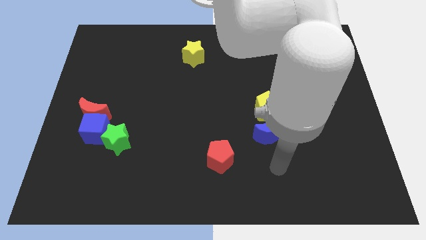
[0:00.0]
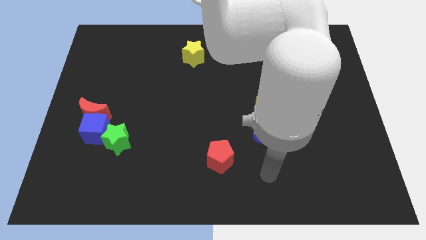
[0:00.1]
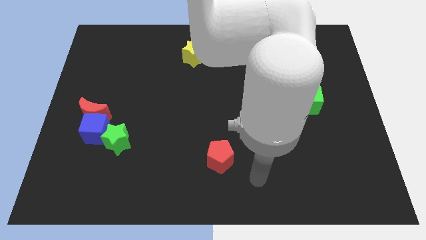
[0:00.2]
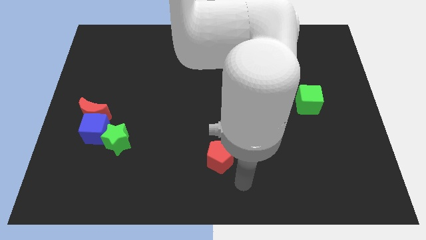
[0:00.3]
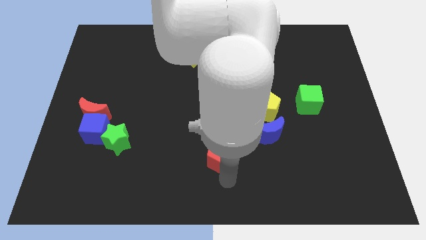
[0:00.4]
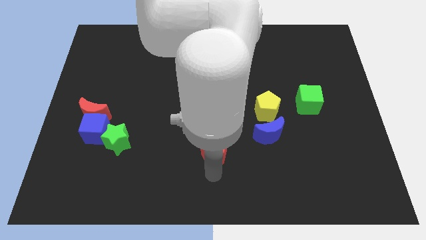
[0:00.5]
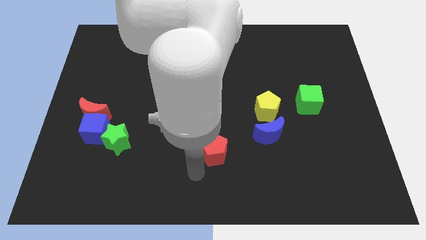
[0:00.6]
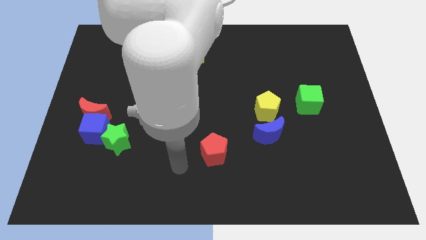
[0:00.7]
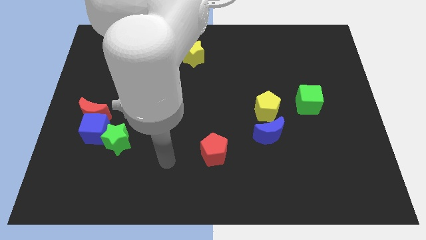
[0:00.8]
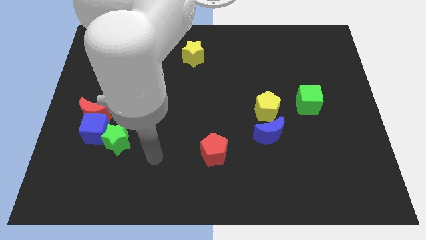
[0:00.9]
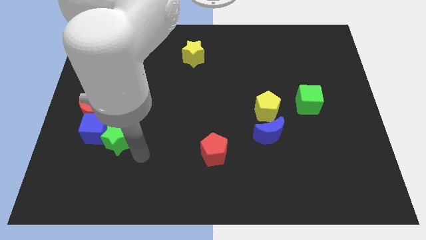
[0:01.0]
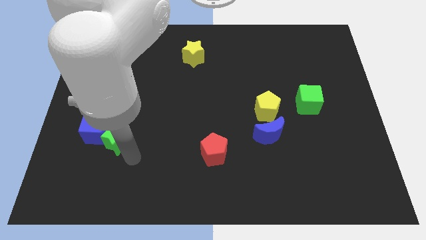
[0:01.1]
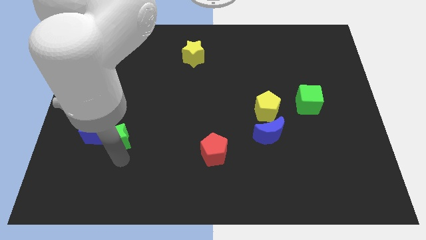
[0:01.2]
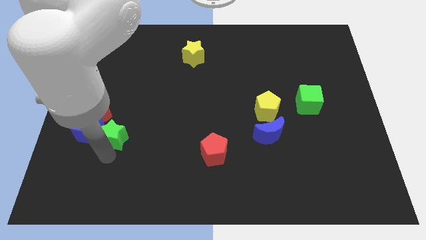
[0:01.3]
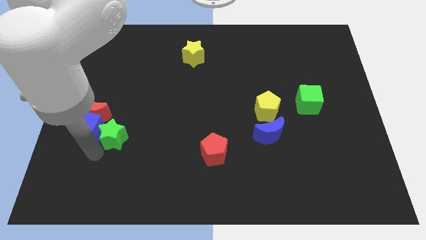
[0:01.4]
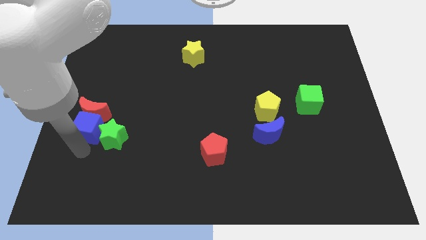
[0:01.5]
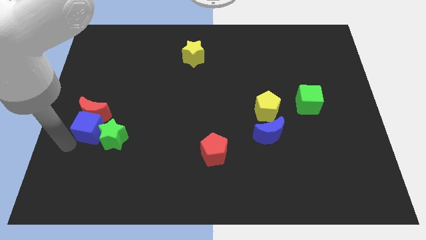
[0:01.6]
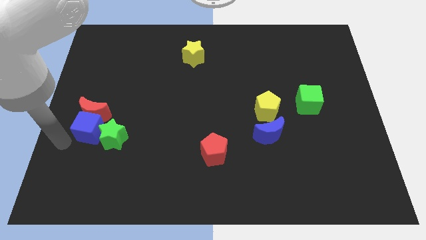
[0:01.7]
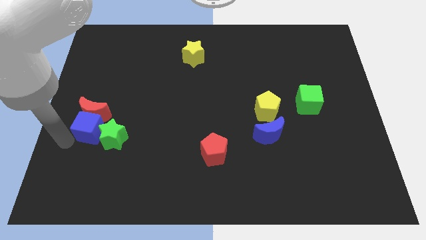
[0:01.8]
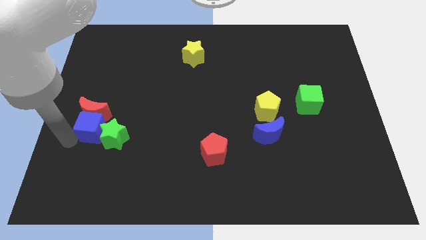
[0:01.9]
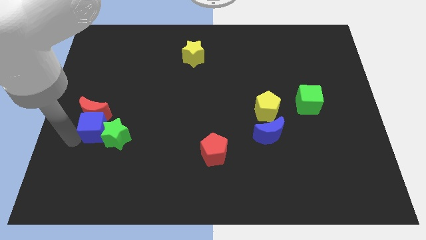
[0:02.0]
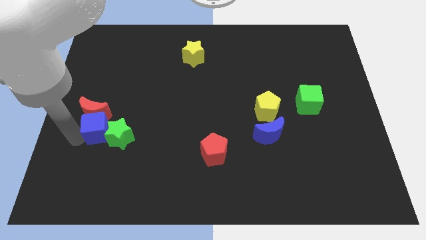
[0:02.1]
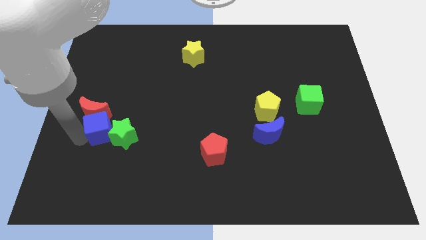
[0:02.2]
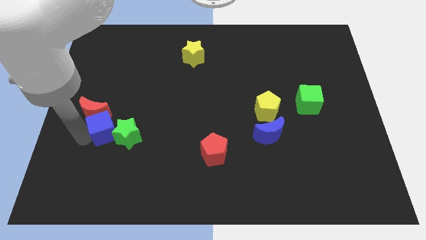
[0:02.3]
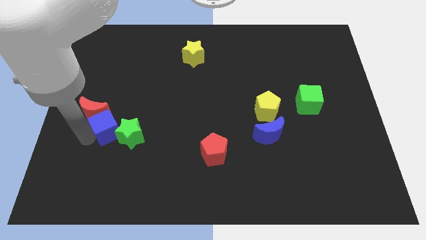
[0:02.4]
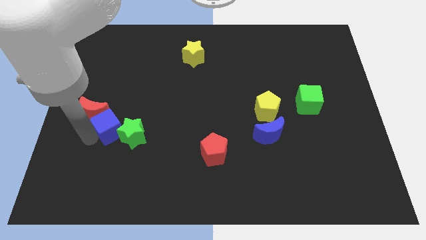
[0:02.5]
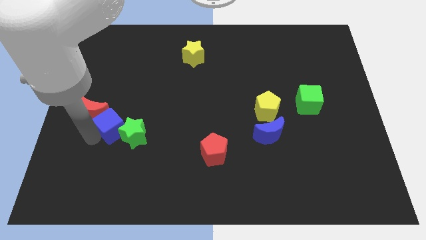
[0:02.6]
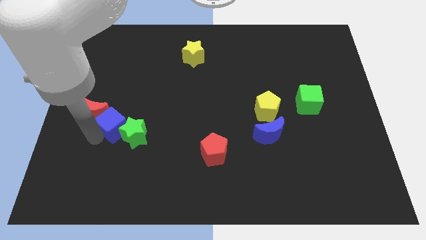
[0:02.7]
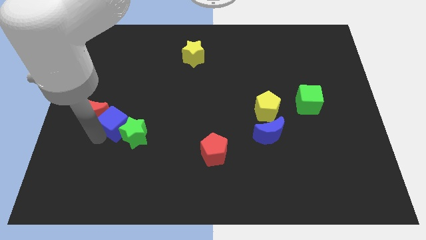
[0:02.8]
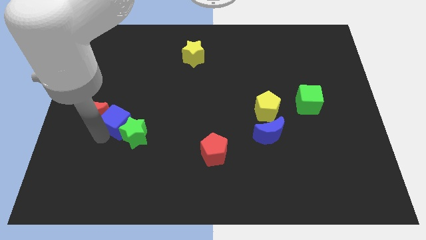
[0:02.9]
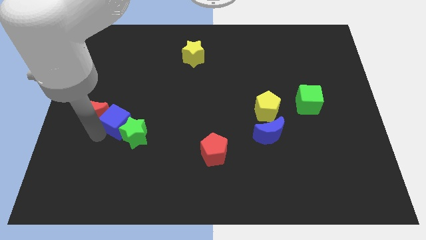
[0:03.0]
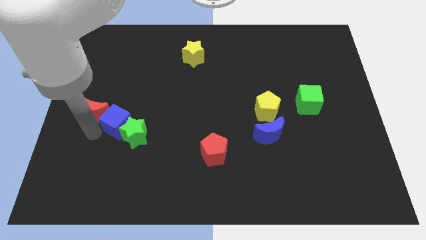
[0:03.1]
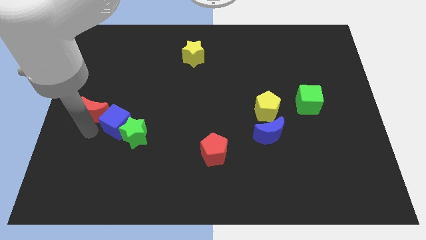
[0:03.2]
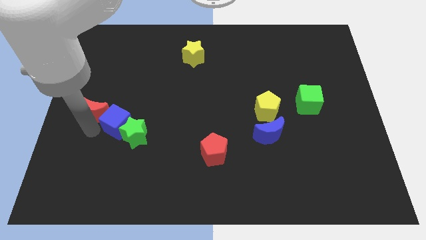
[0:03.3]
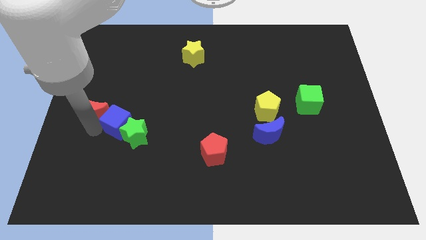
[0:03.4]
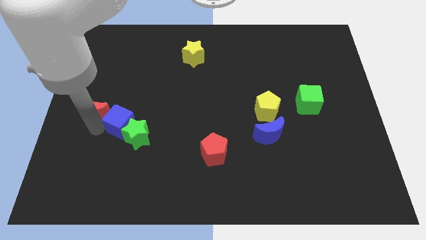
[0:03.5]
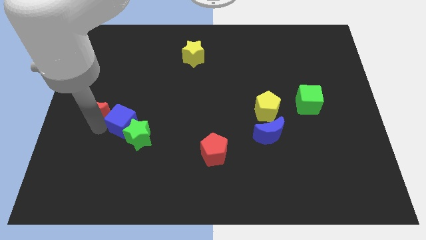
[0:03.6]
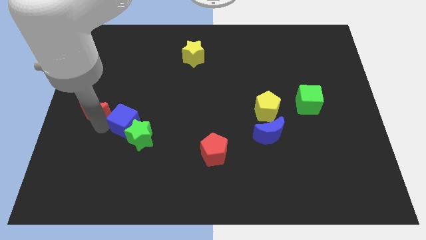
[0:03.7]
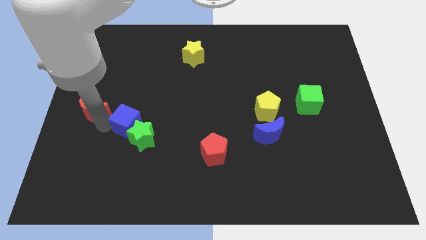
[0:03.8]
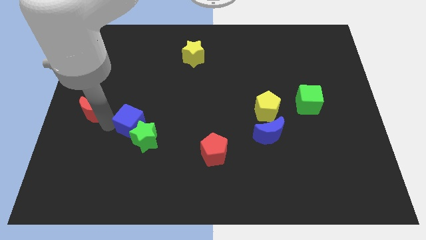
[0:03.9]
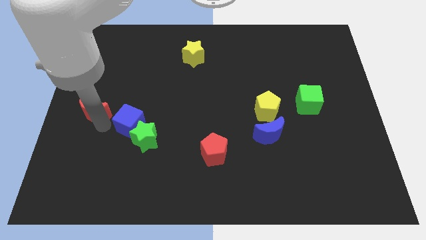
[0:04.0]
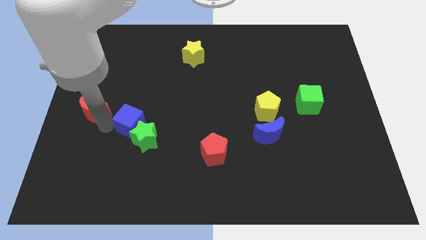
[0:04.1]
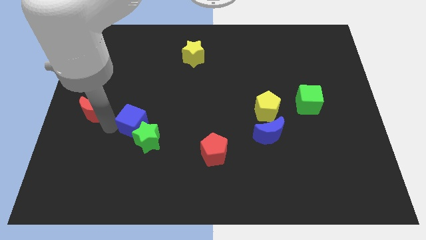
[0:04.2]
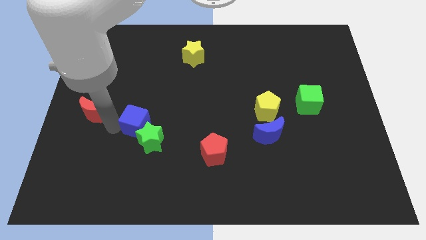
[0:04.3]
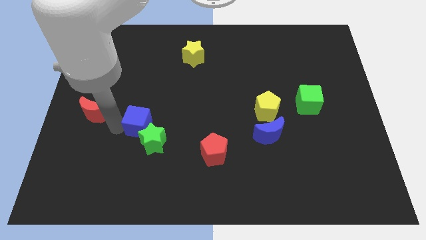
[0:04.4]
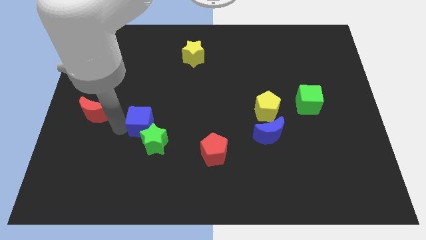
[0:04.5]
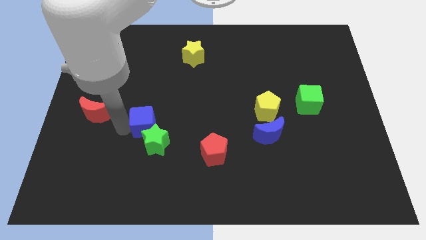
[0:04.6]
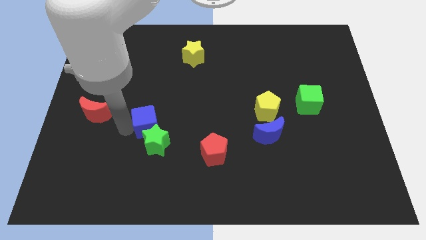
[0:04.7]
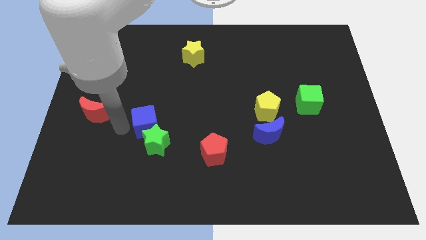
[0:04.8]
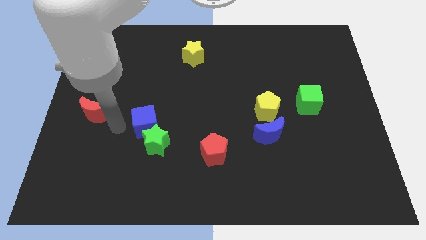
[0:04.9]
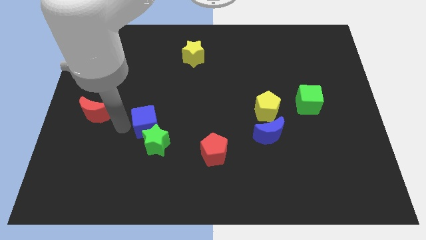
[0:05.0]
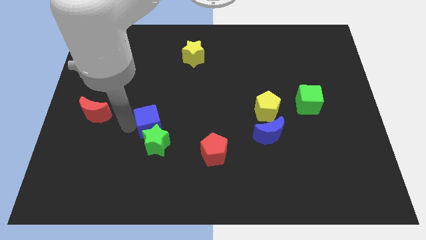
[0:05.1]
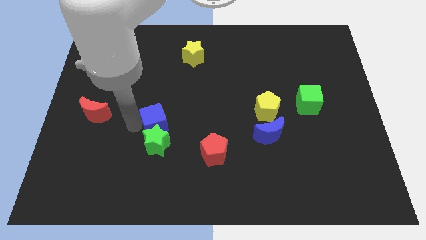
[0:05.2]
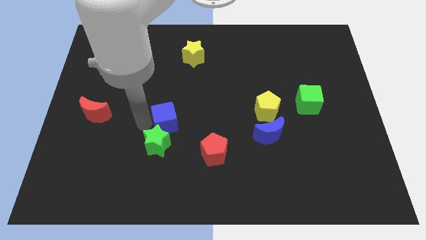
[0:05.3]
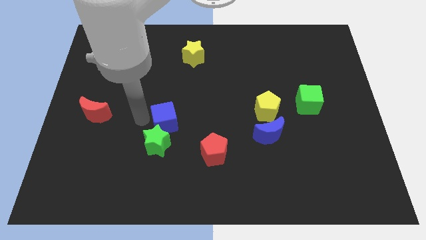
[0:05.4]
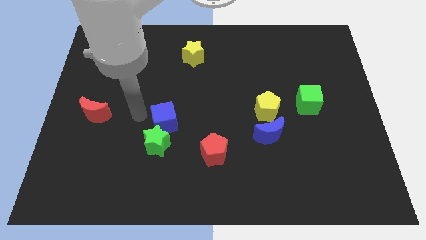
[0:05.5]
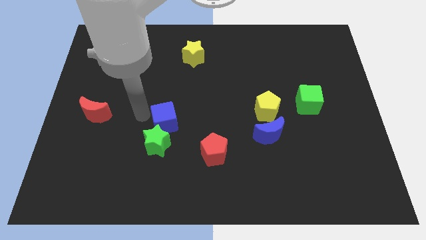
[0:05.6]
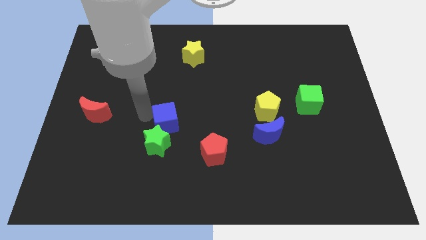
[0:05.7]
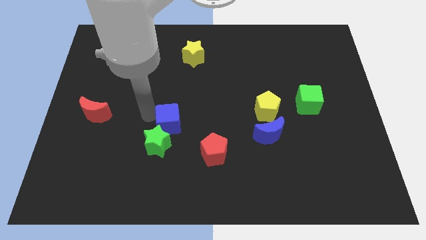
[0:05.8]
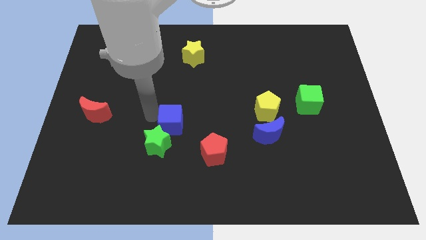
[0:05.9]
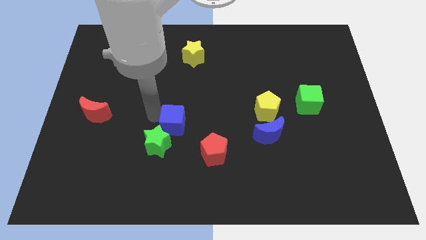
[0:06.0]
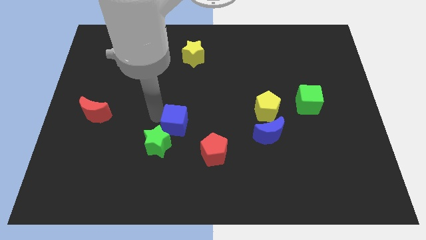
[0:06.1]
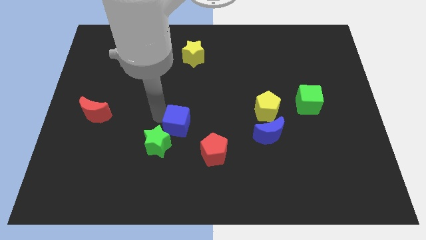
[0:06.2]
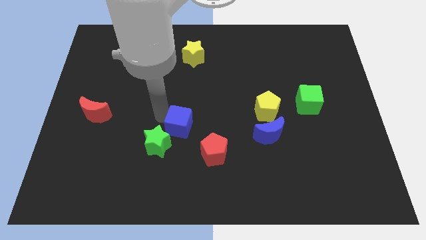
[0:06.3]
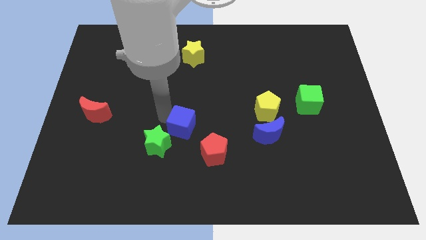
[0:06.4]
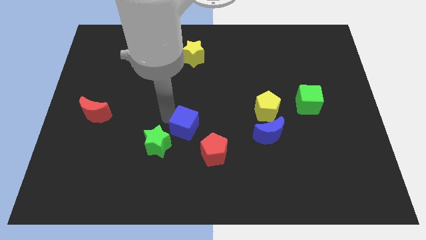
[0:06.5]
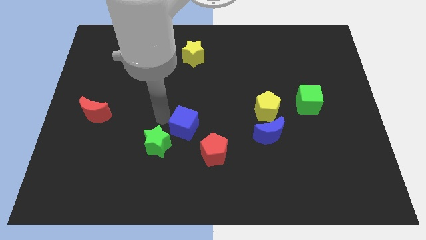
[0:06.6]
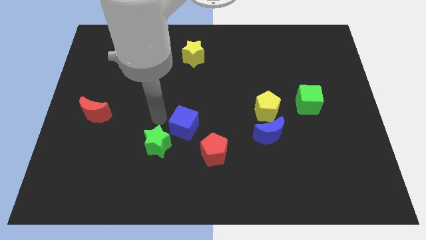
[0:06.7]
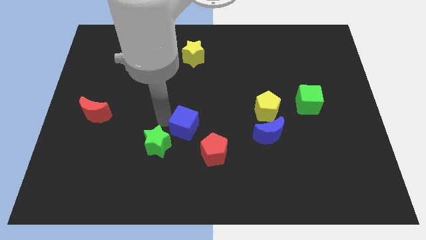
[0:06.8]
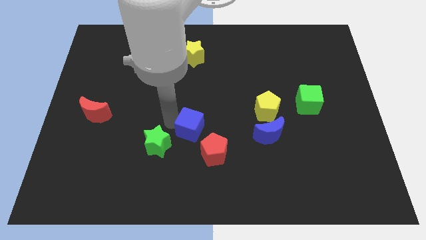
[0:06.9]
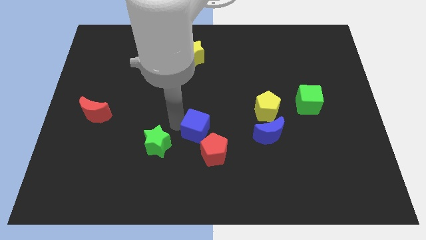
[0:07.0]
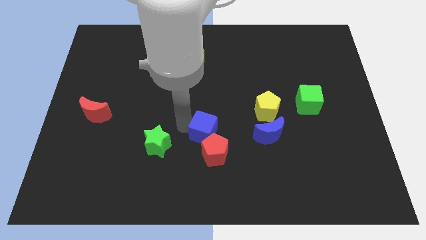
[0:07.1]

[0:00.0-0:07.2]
move the blue cube to the left side of the blue moon
